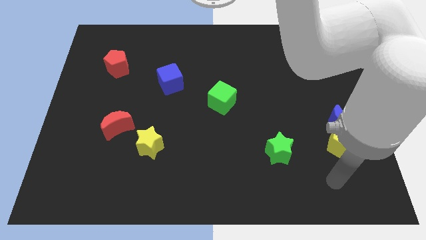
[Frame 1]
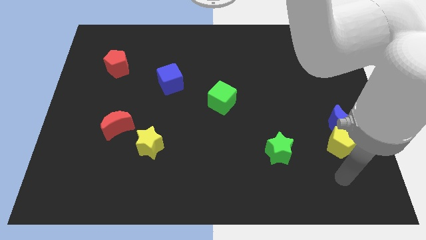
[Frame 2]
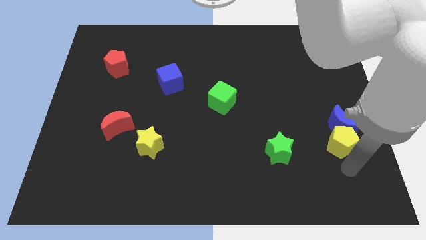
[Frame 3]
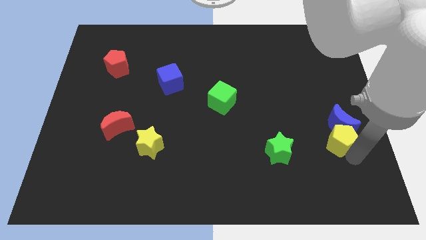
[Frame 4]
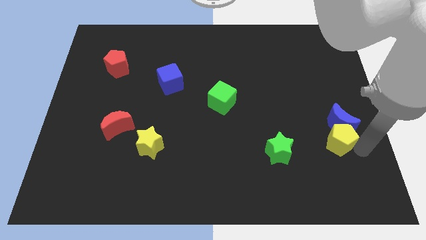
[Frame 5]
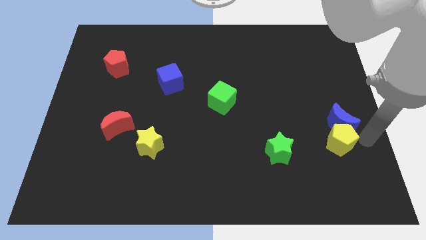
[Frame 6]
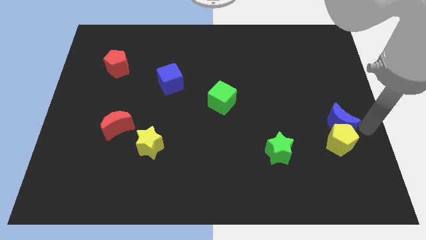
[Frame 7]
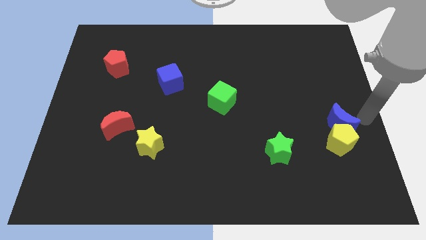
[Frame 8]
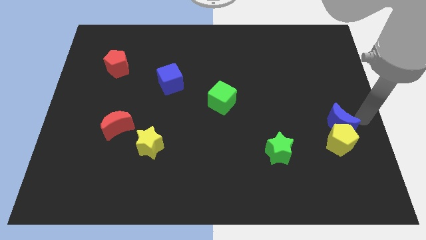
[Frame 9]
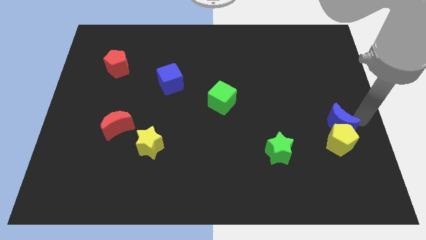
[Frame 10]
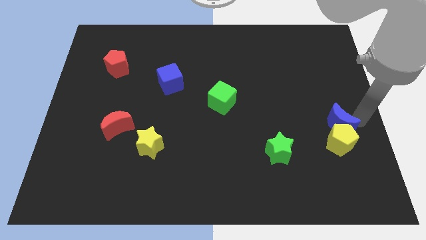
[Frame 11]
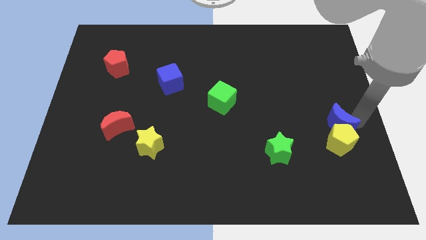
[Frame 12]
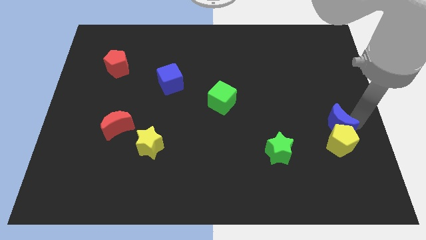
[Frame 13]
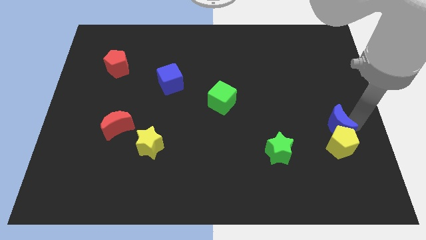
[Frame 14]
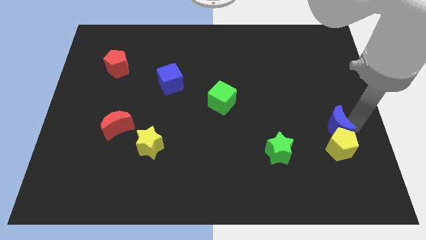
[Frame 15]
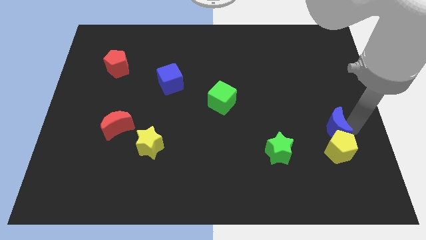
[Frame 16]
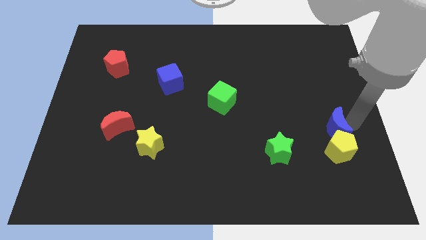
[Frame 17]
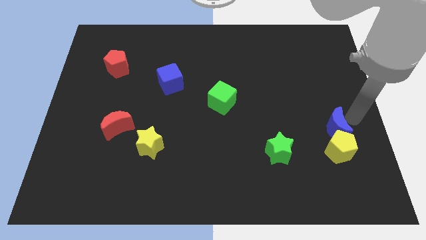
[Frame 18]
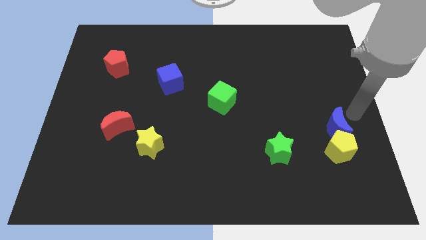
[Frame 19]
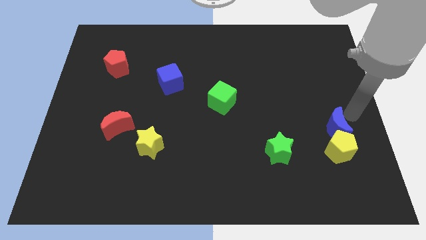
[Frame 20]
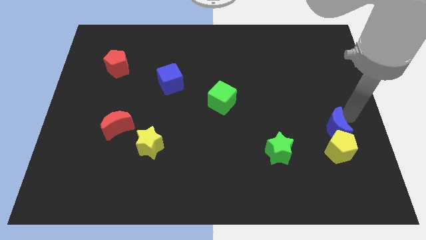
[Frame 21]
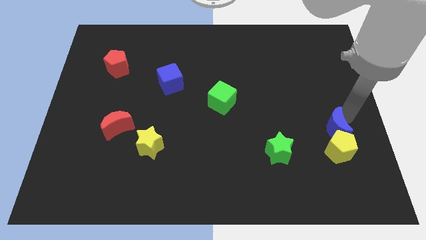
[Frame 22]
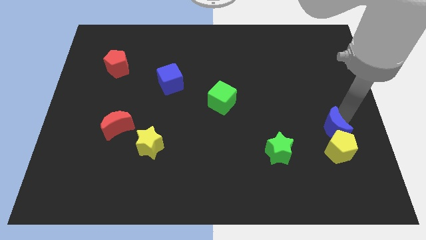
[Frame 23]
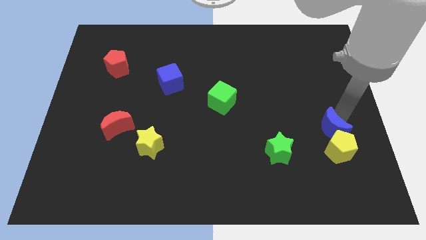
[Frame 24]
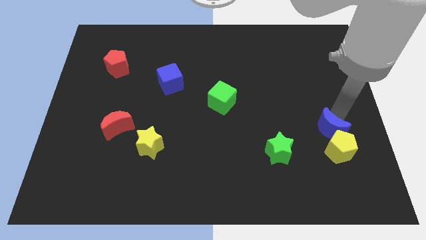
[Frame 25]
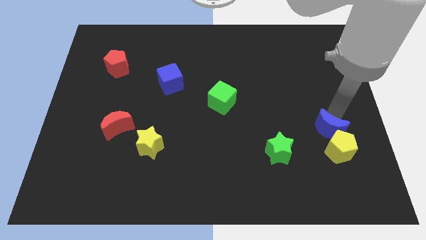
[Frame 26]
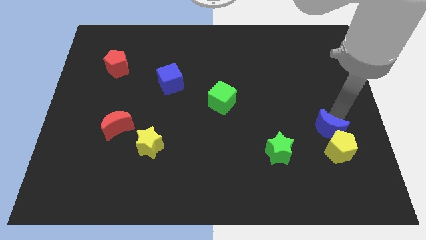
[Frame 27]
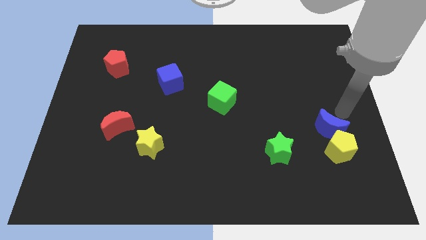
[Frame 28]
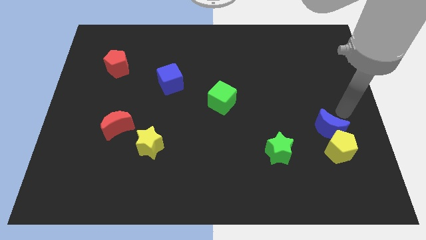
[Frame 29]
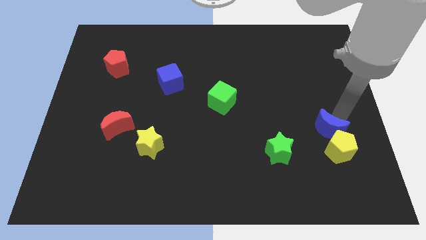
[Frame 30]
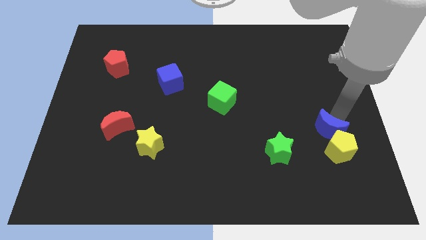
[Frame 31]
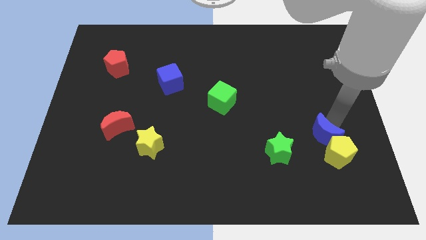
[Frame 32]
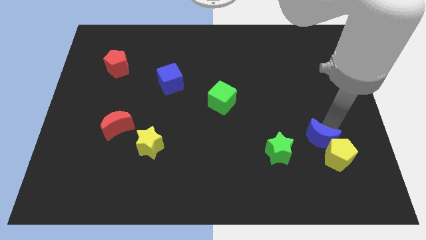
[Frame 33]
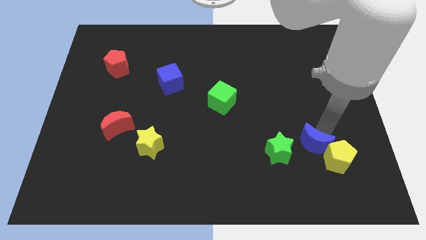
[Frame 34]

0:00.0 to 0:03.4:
slightly move the blue moon downwards and then left

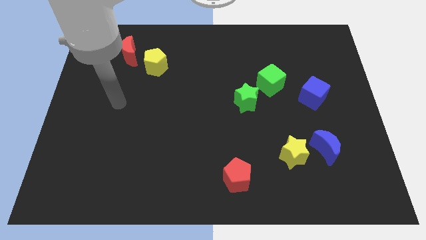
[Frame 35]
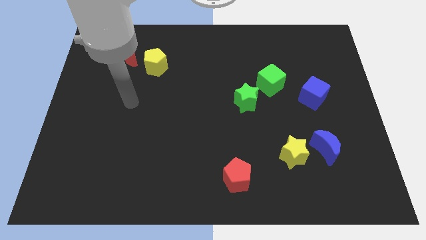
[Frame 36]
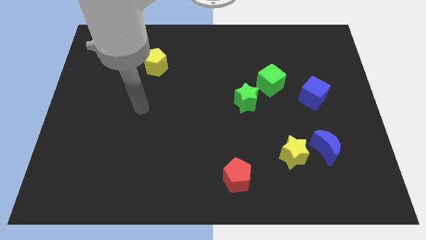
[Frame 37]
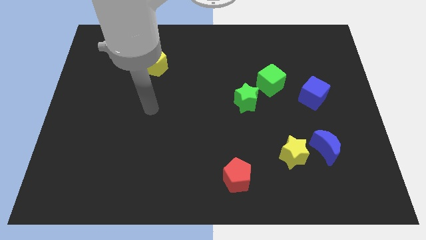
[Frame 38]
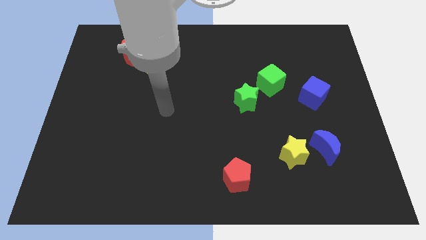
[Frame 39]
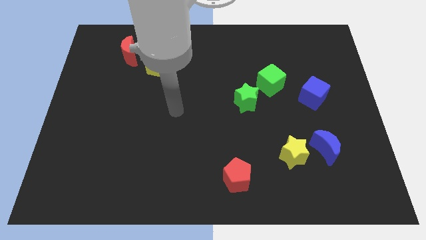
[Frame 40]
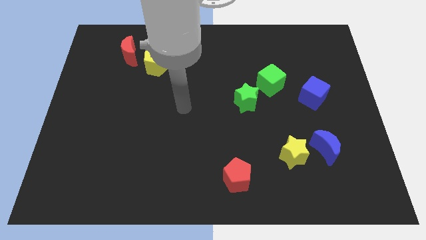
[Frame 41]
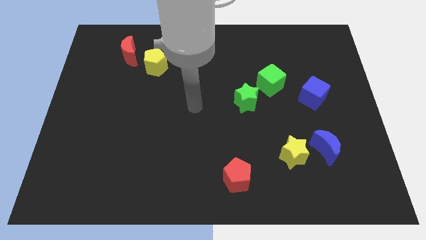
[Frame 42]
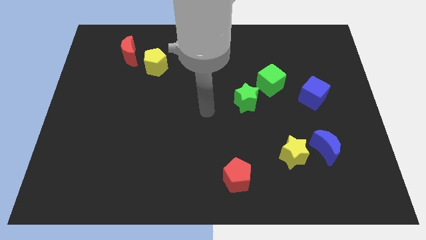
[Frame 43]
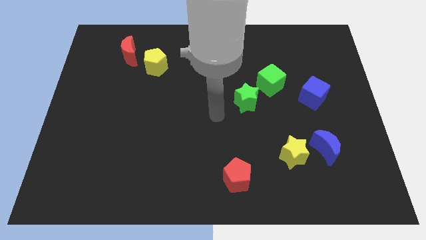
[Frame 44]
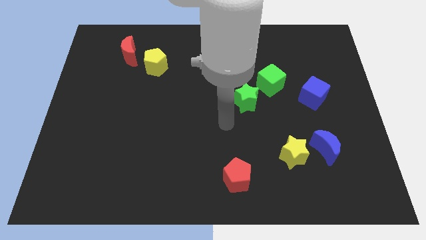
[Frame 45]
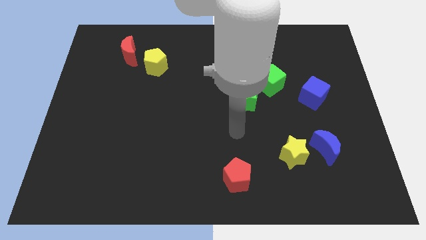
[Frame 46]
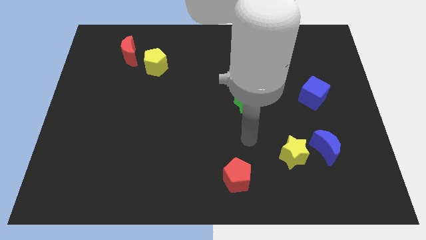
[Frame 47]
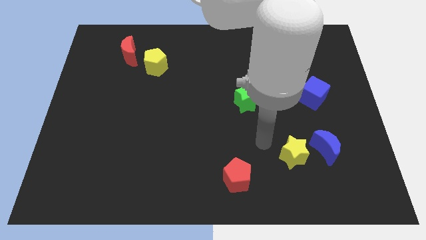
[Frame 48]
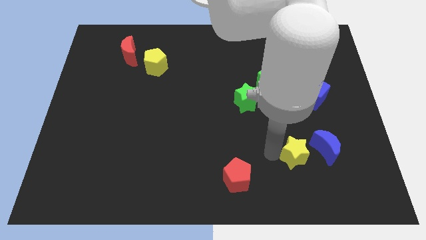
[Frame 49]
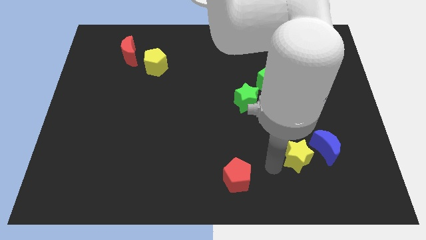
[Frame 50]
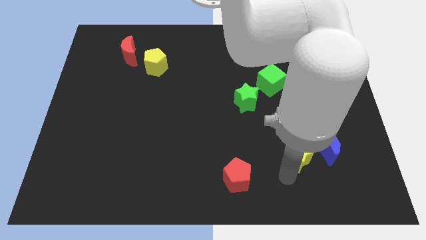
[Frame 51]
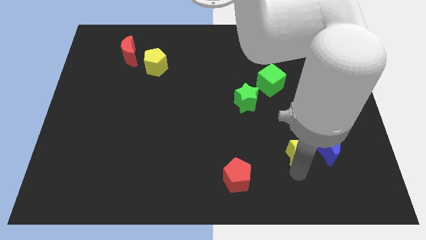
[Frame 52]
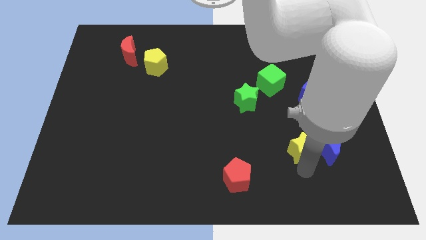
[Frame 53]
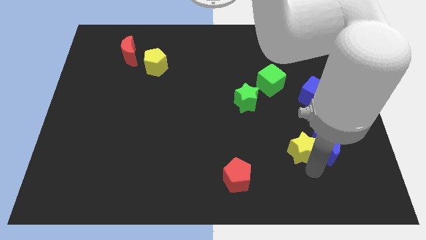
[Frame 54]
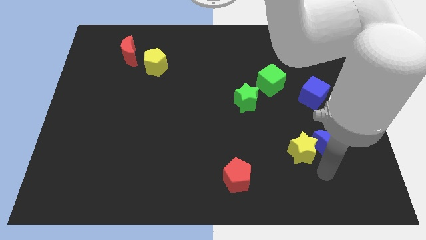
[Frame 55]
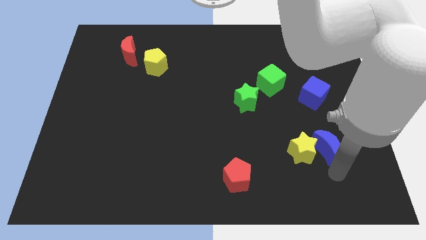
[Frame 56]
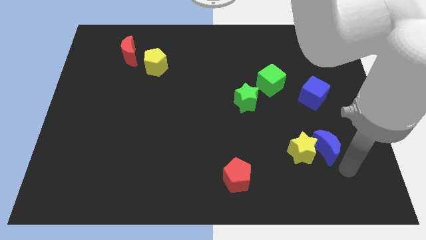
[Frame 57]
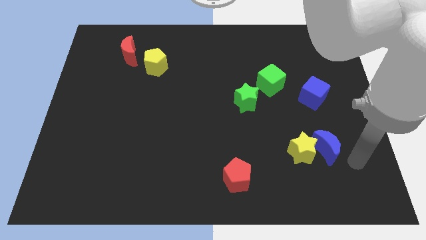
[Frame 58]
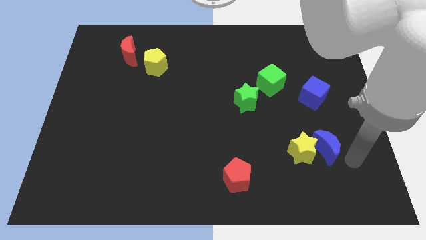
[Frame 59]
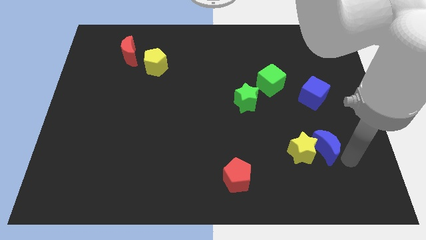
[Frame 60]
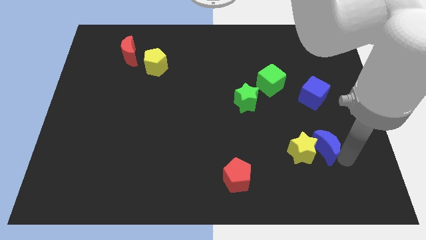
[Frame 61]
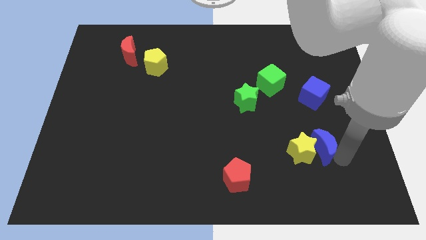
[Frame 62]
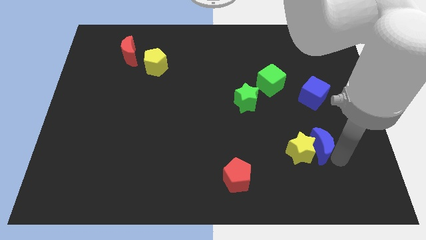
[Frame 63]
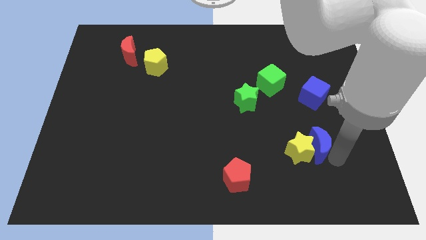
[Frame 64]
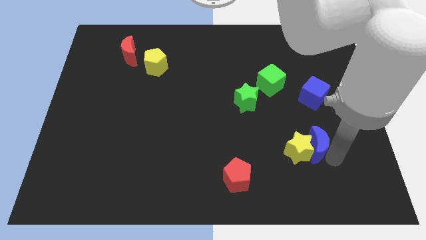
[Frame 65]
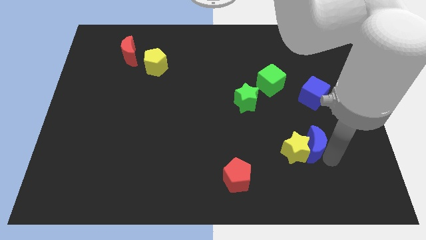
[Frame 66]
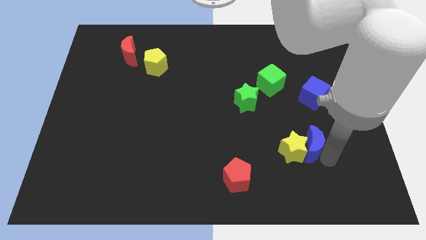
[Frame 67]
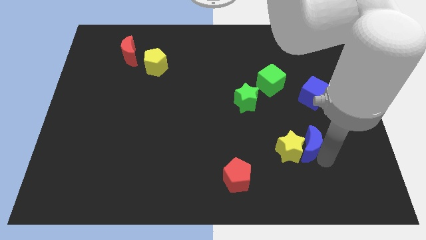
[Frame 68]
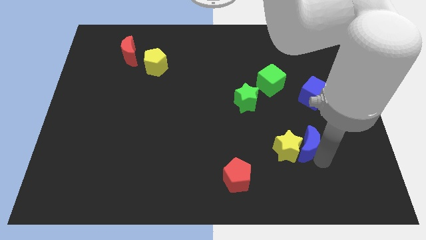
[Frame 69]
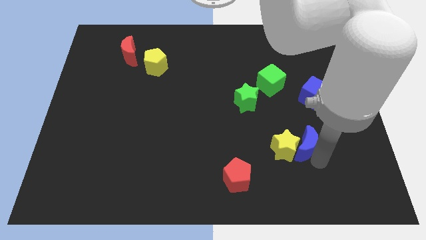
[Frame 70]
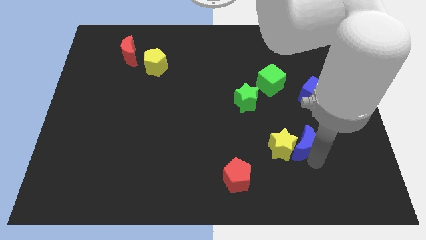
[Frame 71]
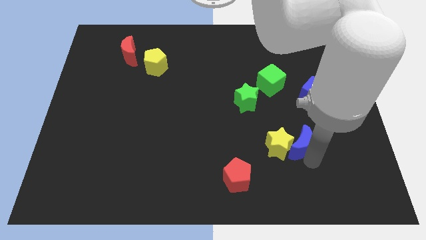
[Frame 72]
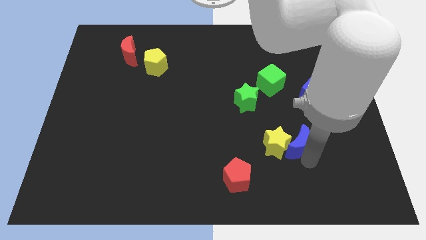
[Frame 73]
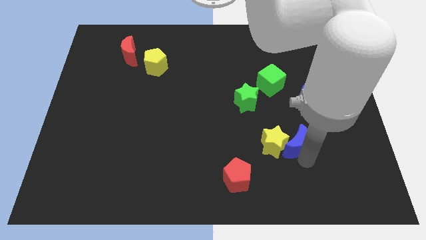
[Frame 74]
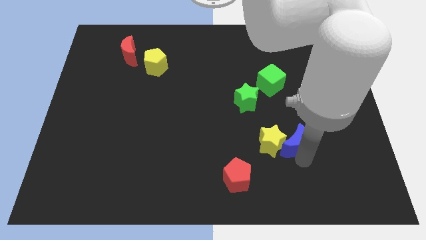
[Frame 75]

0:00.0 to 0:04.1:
slide the blue moon left slightly

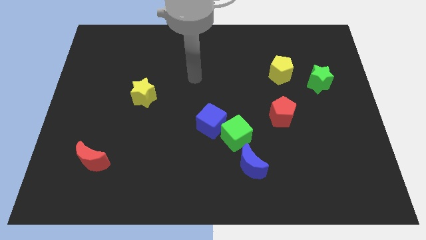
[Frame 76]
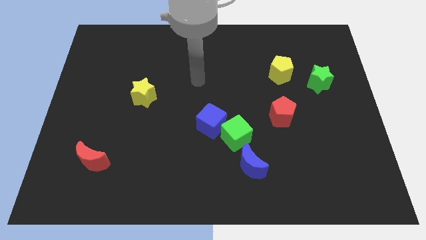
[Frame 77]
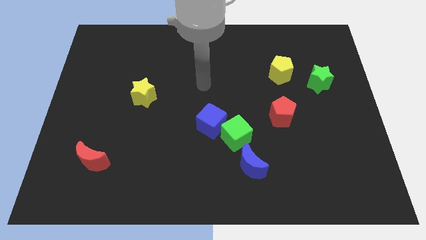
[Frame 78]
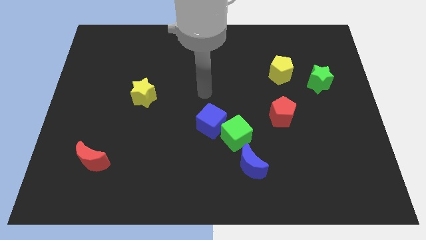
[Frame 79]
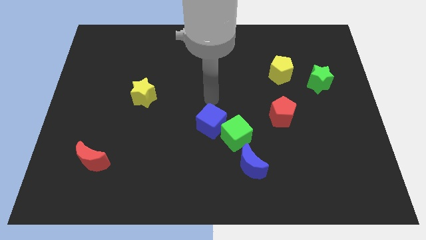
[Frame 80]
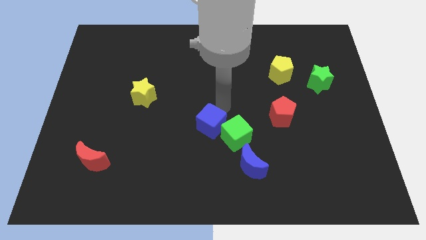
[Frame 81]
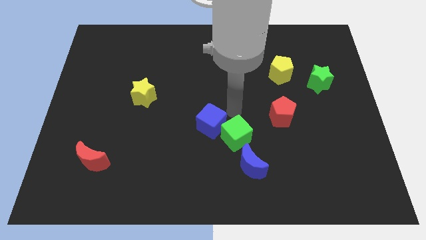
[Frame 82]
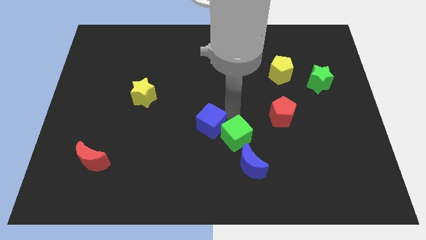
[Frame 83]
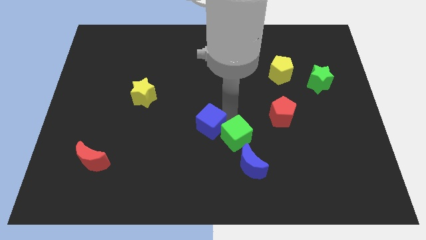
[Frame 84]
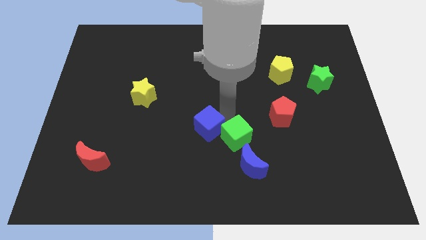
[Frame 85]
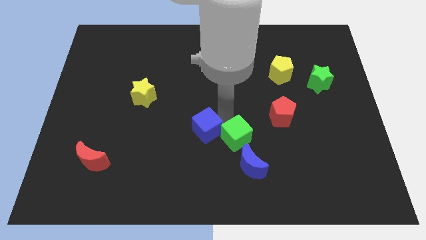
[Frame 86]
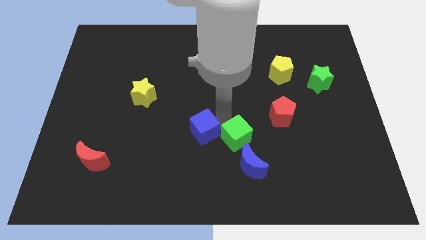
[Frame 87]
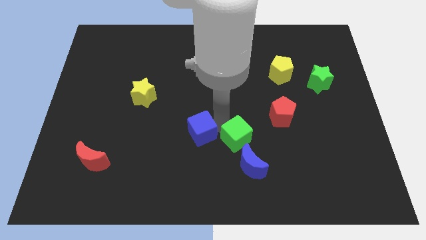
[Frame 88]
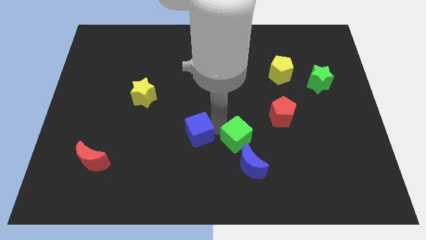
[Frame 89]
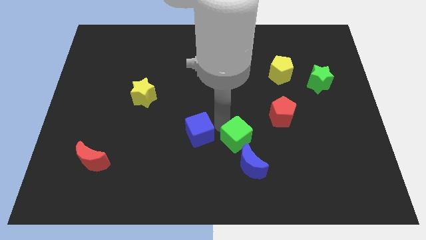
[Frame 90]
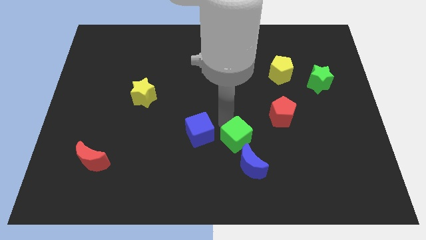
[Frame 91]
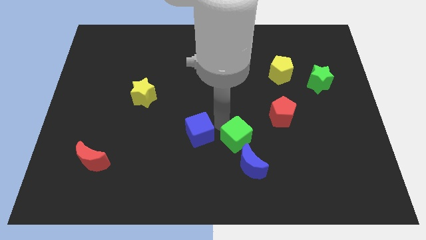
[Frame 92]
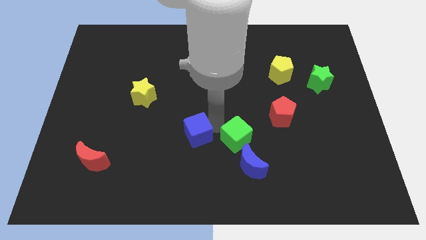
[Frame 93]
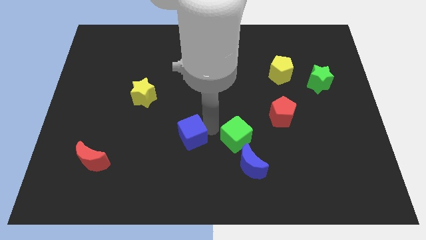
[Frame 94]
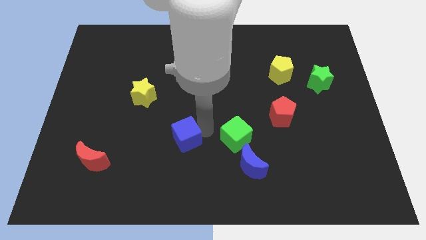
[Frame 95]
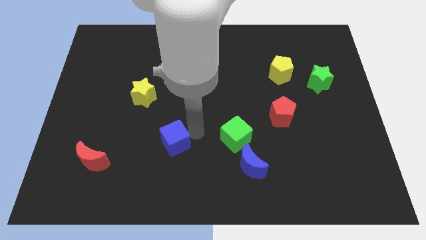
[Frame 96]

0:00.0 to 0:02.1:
move the blue cube down and to the left diagonally somewhat
